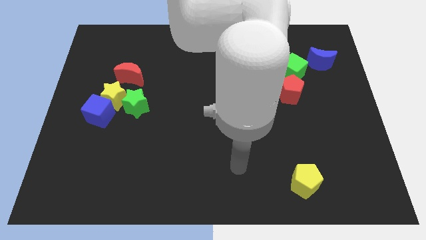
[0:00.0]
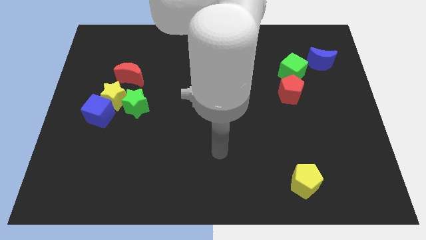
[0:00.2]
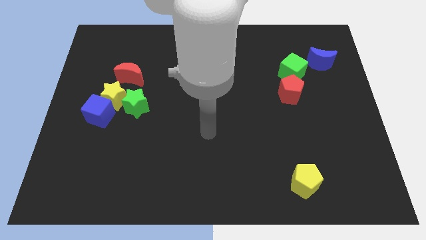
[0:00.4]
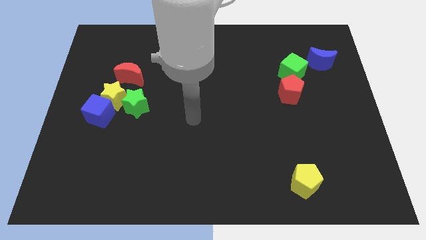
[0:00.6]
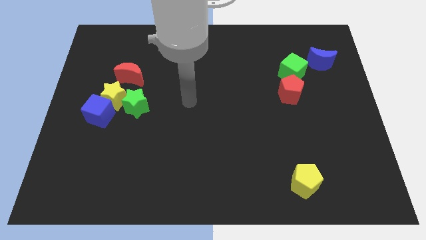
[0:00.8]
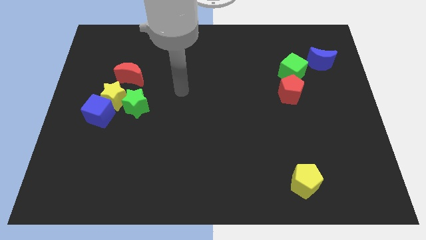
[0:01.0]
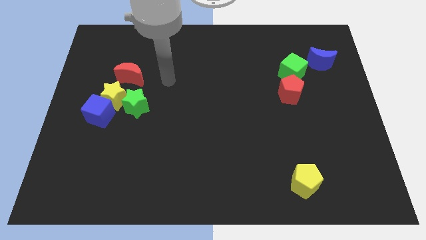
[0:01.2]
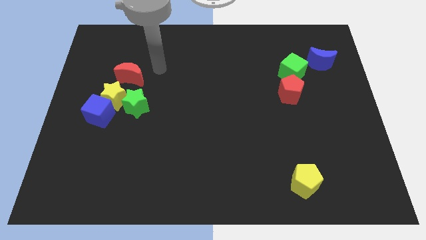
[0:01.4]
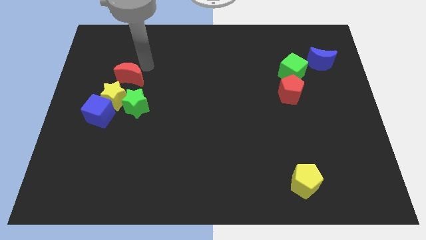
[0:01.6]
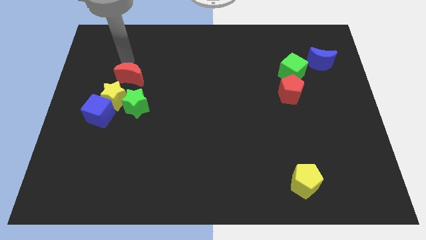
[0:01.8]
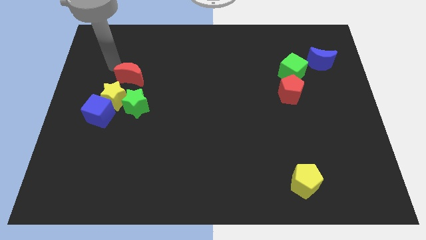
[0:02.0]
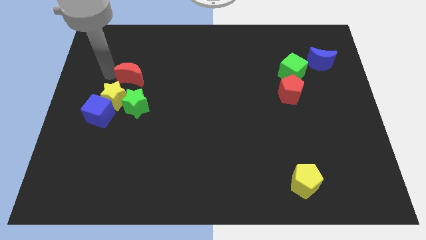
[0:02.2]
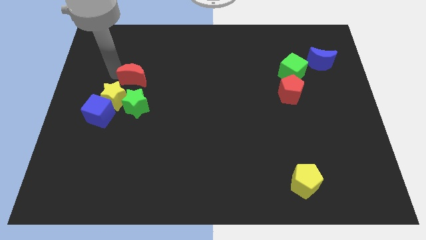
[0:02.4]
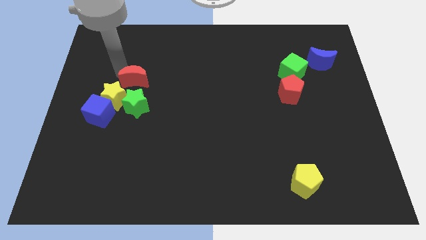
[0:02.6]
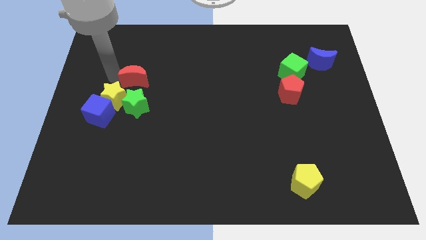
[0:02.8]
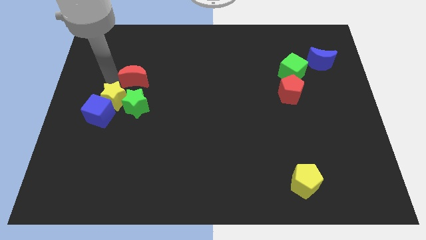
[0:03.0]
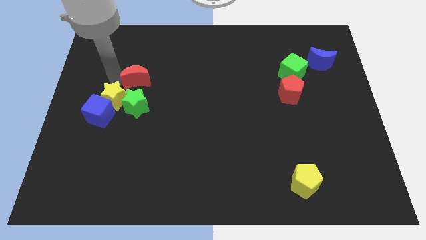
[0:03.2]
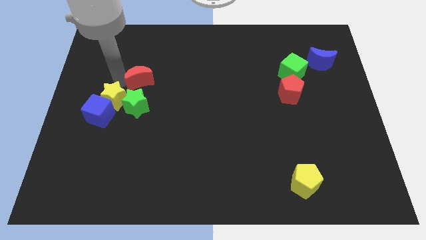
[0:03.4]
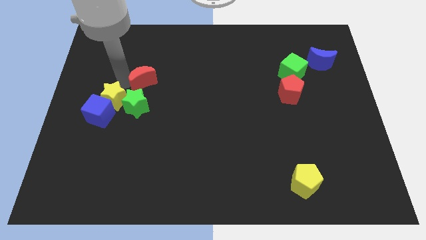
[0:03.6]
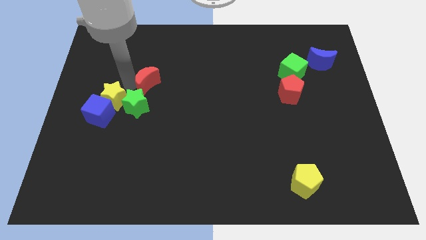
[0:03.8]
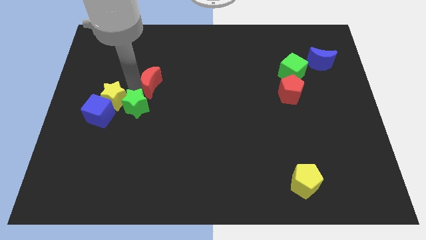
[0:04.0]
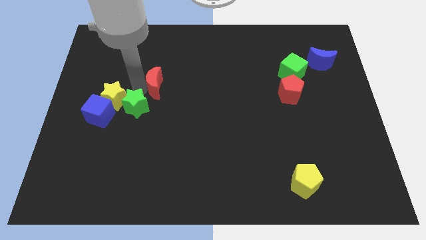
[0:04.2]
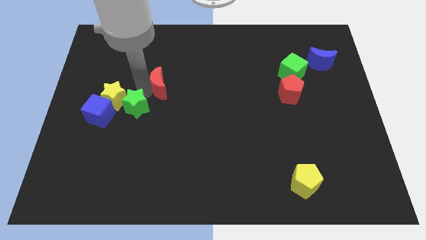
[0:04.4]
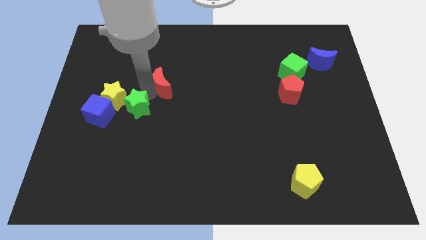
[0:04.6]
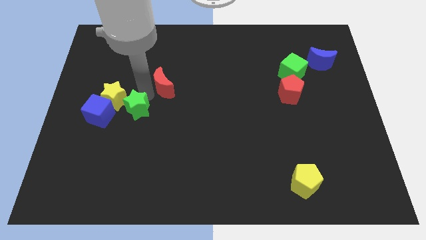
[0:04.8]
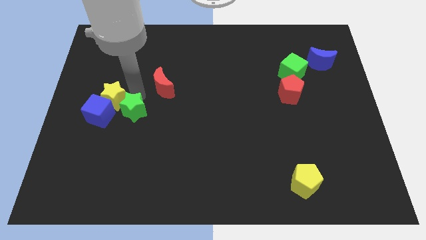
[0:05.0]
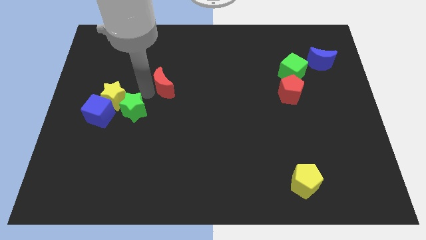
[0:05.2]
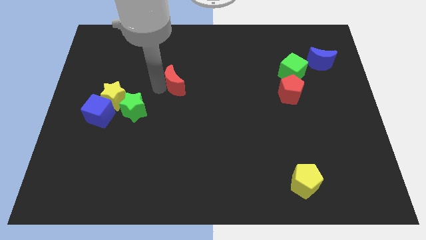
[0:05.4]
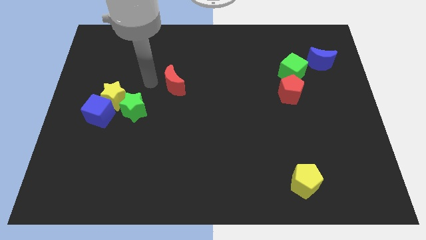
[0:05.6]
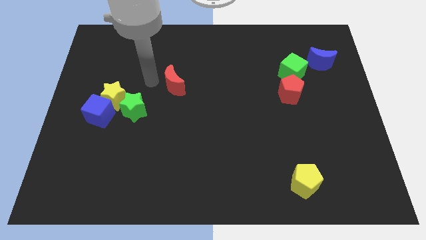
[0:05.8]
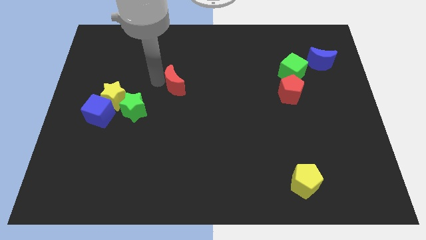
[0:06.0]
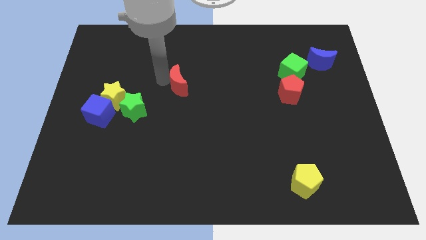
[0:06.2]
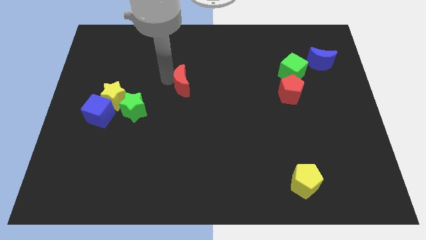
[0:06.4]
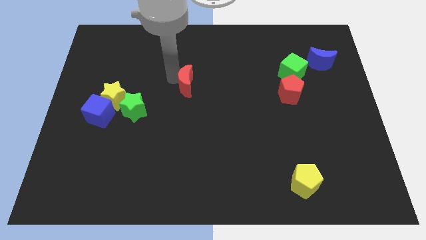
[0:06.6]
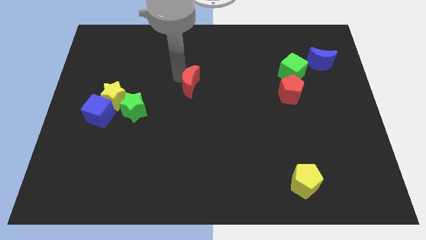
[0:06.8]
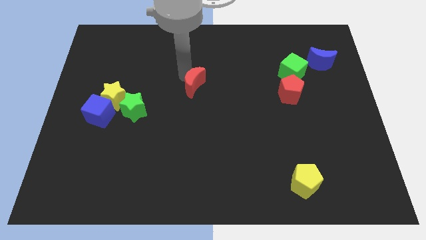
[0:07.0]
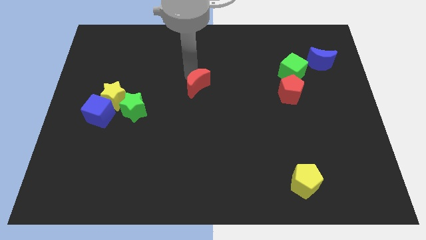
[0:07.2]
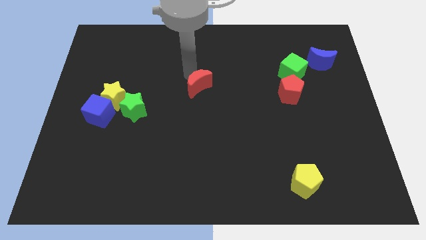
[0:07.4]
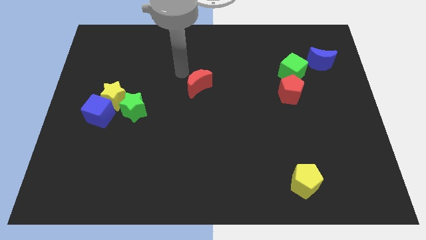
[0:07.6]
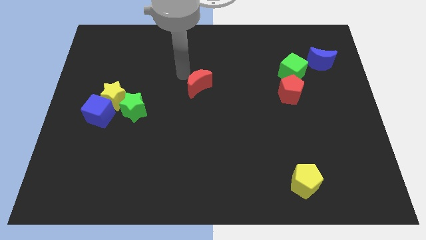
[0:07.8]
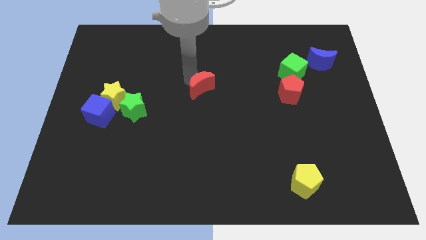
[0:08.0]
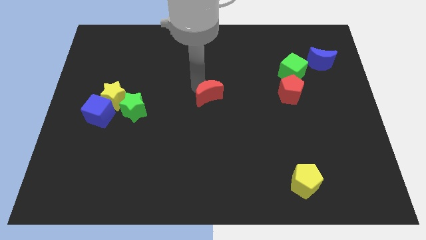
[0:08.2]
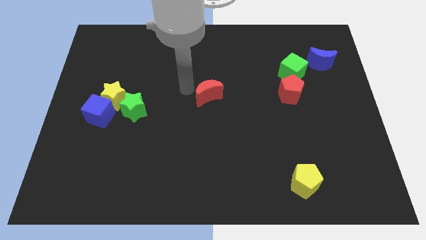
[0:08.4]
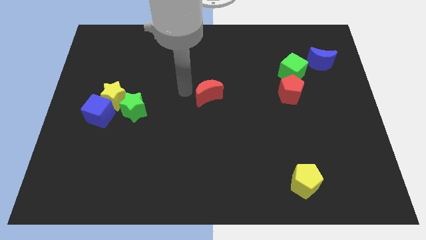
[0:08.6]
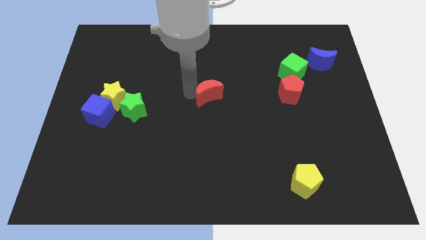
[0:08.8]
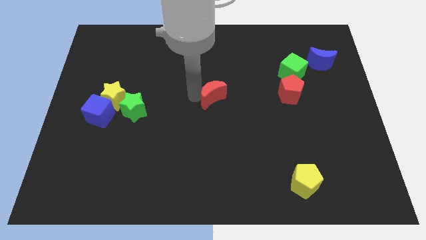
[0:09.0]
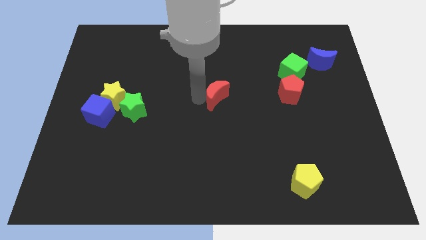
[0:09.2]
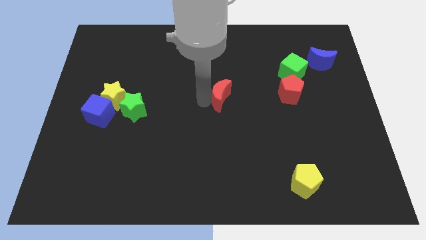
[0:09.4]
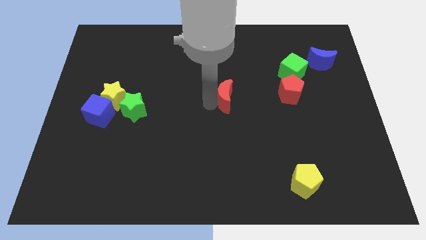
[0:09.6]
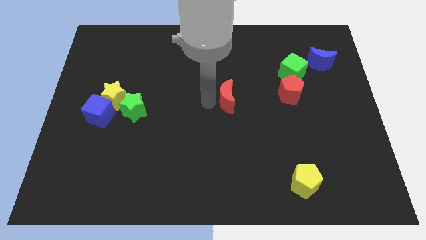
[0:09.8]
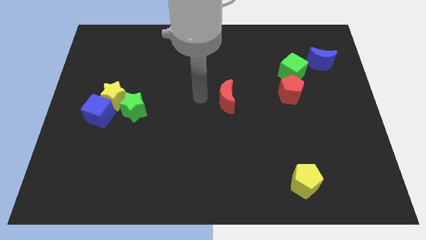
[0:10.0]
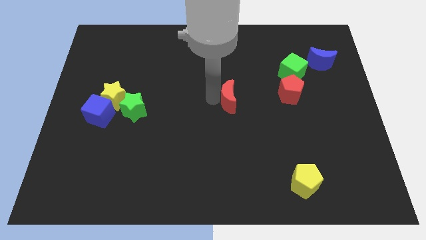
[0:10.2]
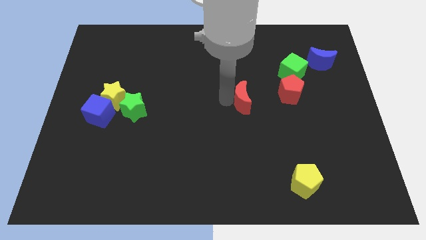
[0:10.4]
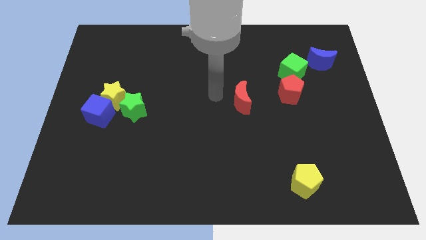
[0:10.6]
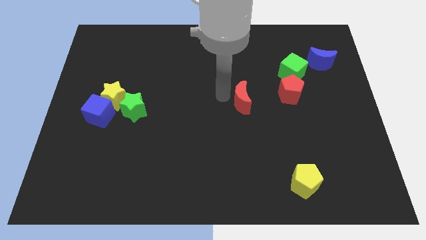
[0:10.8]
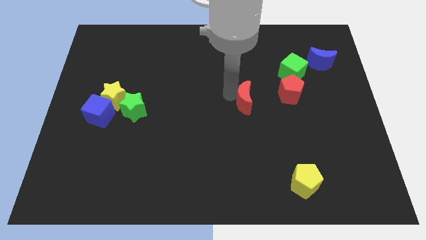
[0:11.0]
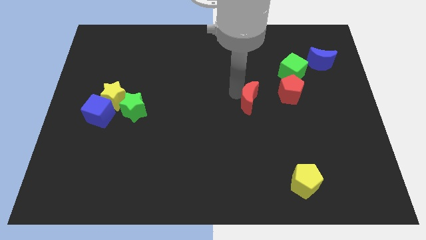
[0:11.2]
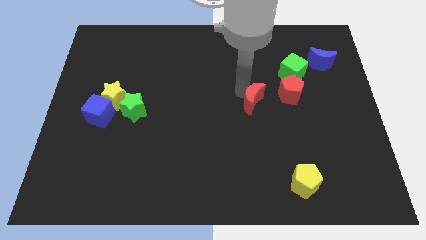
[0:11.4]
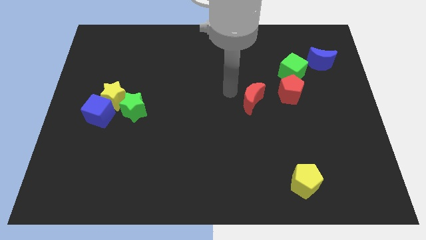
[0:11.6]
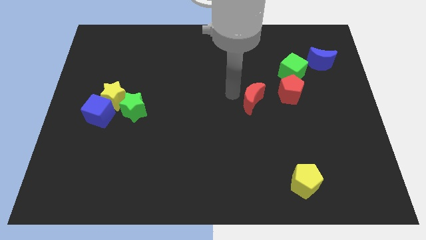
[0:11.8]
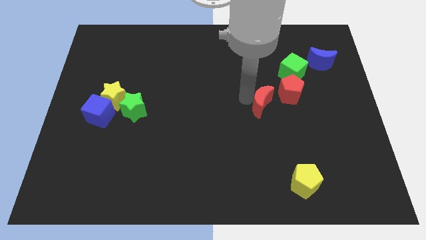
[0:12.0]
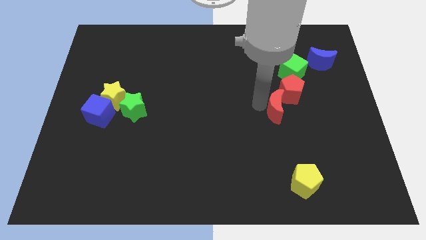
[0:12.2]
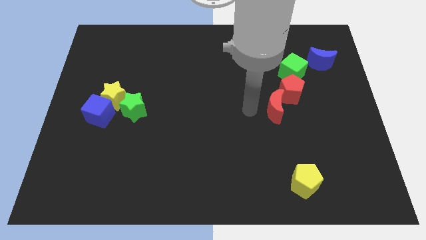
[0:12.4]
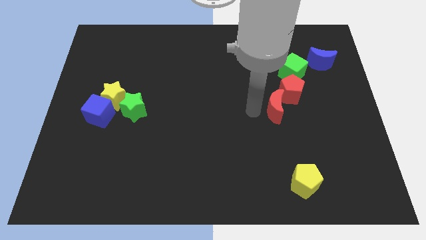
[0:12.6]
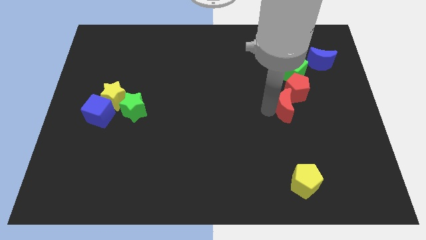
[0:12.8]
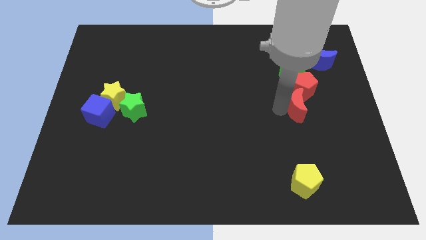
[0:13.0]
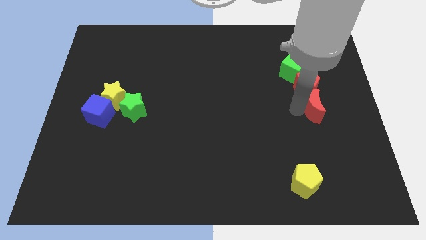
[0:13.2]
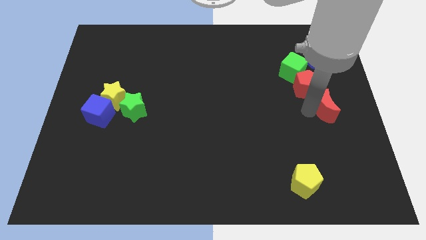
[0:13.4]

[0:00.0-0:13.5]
slide the red moon to the right side
